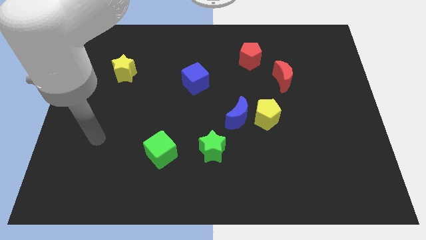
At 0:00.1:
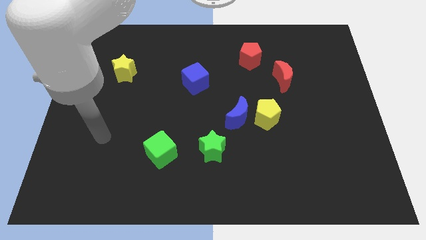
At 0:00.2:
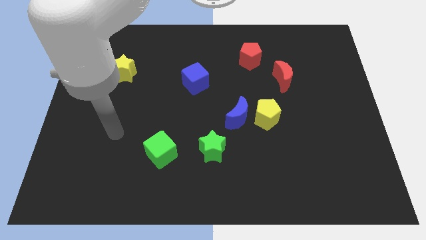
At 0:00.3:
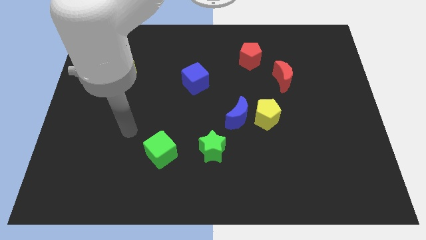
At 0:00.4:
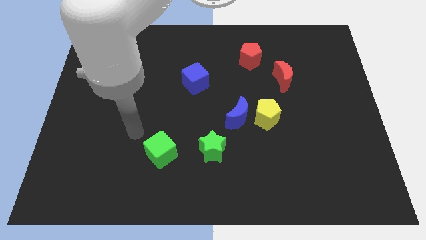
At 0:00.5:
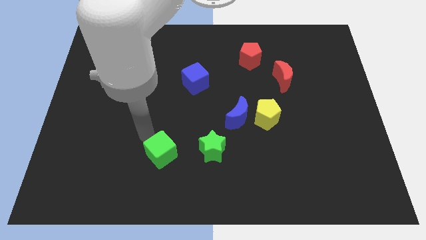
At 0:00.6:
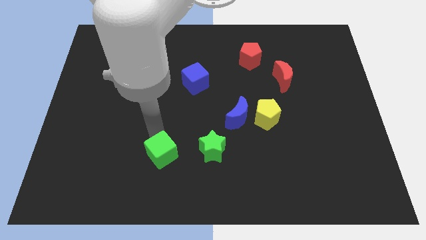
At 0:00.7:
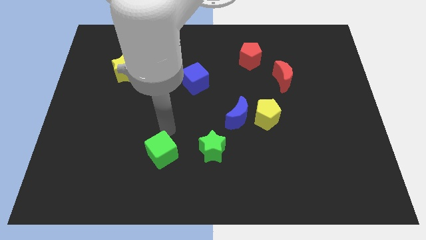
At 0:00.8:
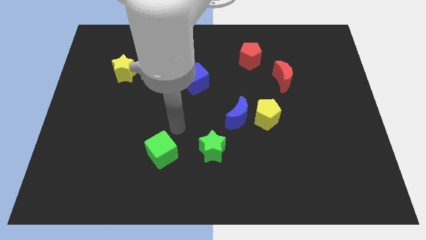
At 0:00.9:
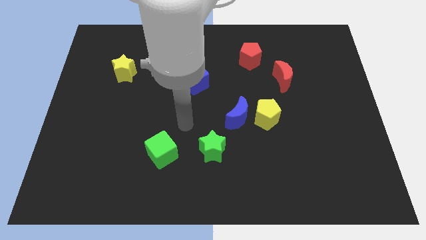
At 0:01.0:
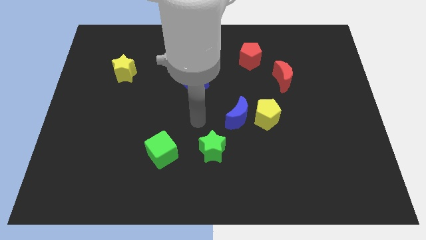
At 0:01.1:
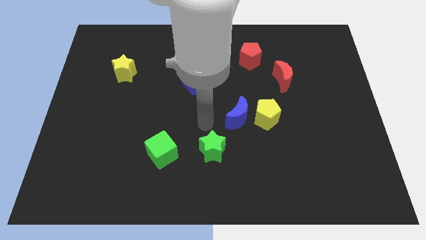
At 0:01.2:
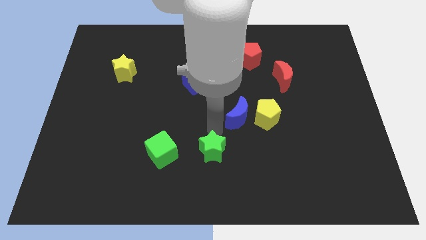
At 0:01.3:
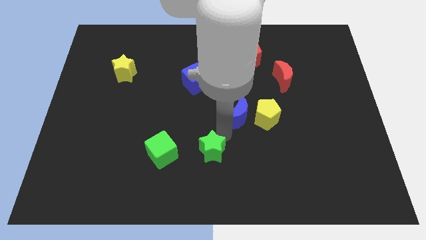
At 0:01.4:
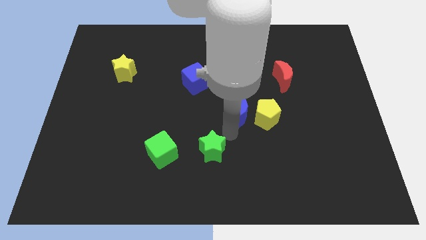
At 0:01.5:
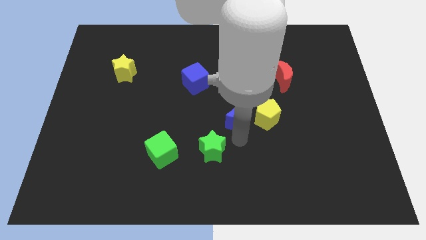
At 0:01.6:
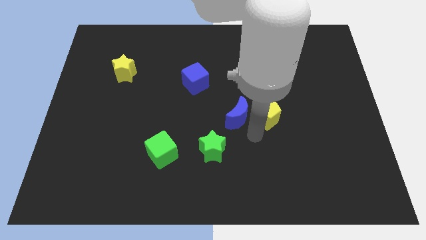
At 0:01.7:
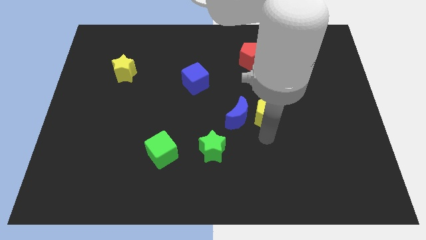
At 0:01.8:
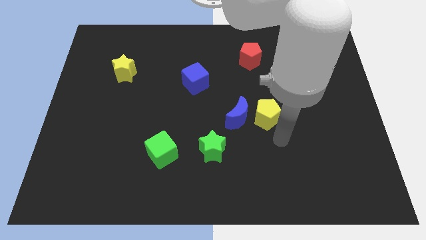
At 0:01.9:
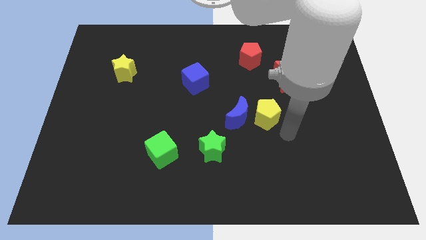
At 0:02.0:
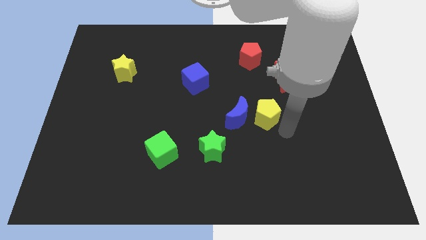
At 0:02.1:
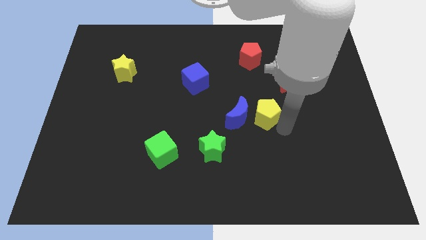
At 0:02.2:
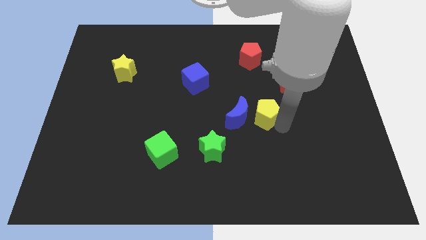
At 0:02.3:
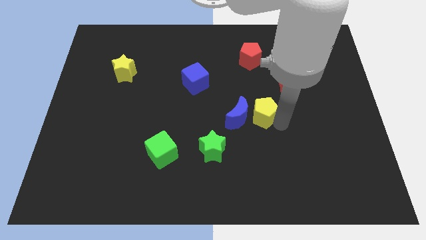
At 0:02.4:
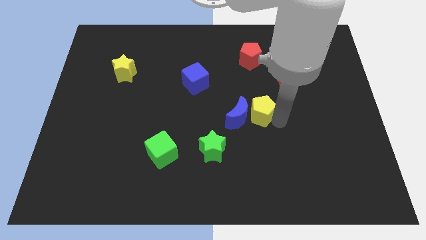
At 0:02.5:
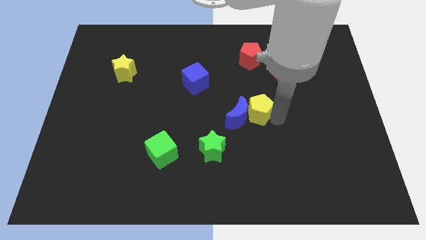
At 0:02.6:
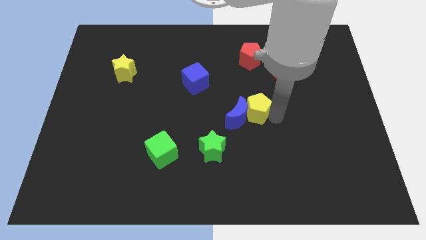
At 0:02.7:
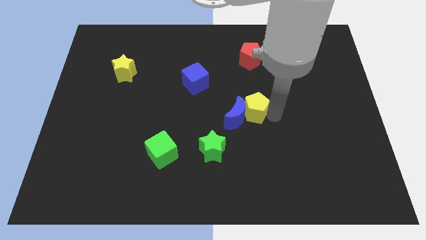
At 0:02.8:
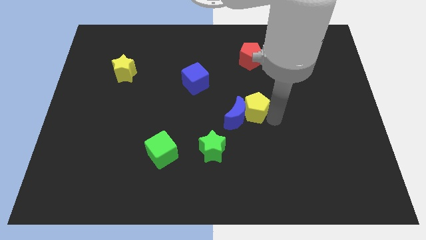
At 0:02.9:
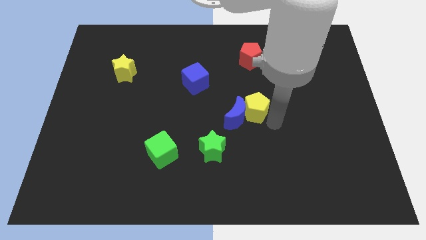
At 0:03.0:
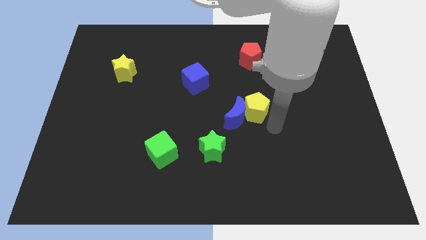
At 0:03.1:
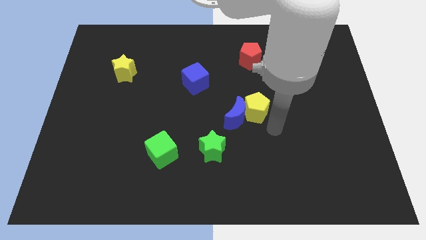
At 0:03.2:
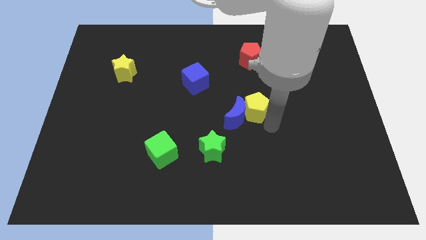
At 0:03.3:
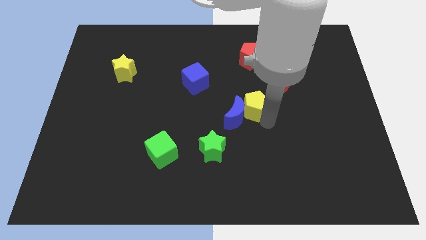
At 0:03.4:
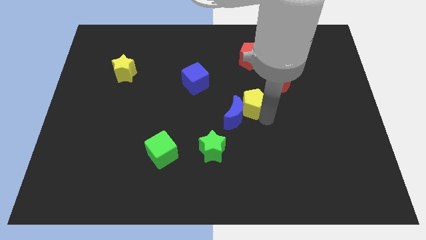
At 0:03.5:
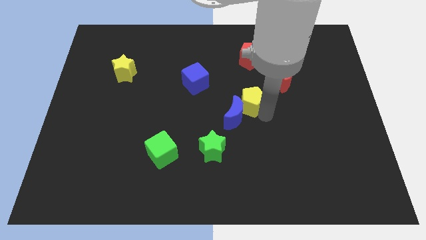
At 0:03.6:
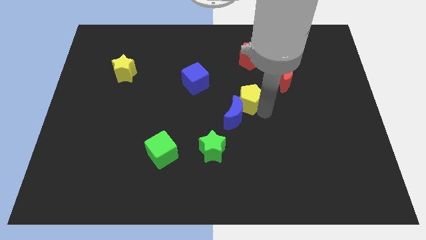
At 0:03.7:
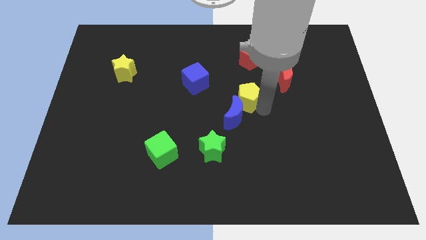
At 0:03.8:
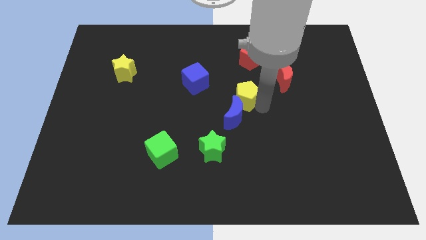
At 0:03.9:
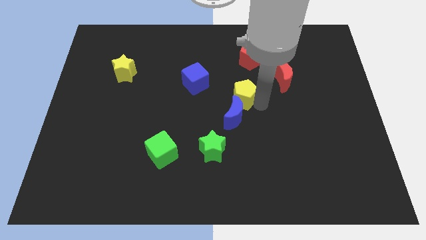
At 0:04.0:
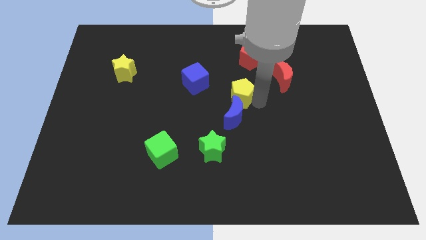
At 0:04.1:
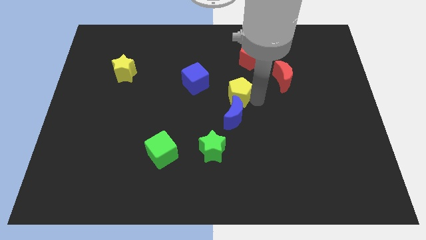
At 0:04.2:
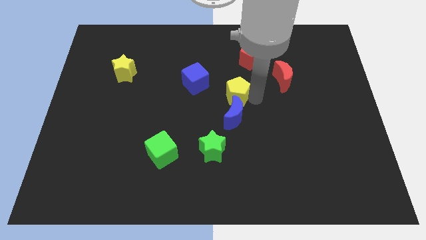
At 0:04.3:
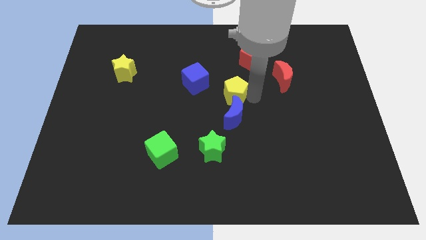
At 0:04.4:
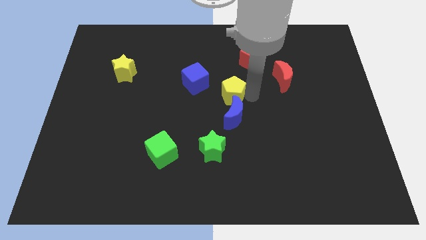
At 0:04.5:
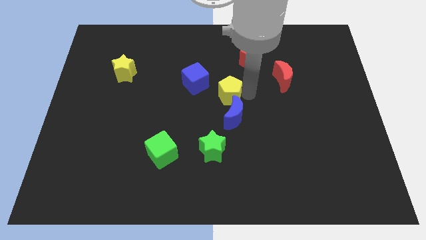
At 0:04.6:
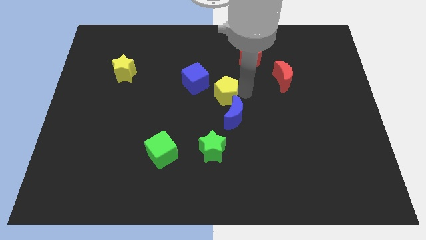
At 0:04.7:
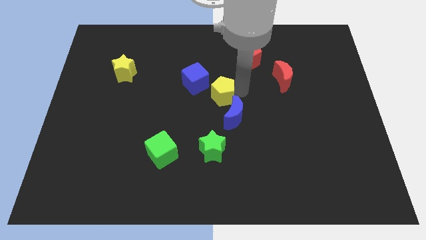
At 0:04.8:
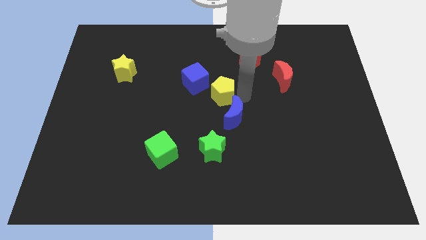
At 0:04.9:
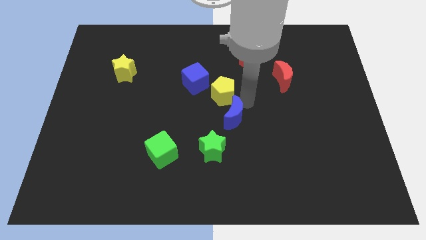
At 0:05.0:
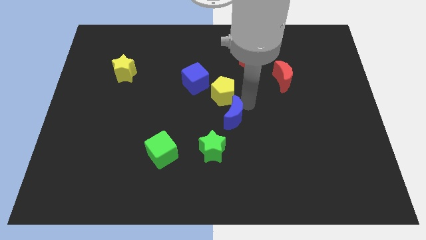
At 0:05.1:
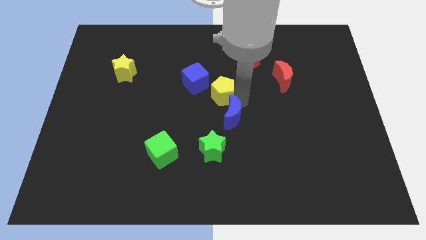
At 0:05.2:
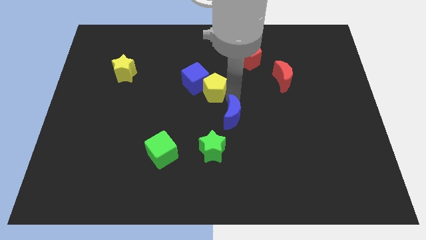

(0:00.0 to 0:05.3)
slide the yellow pentagon close to the blue cube

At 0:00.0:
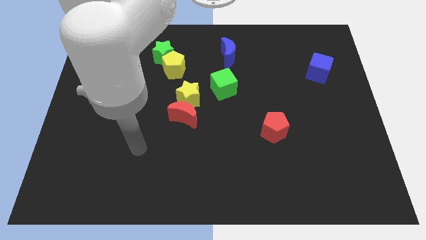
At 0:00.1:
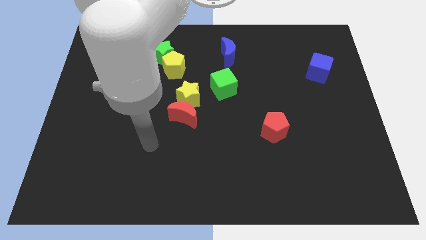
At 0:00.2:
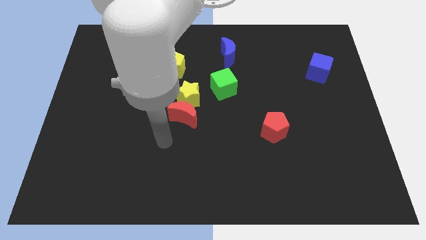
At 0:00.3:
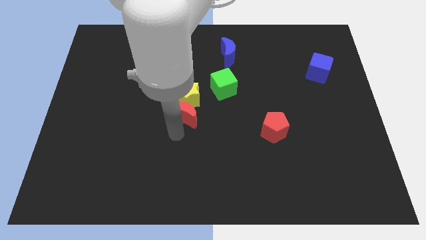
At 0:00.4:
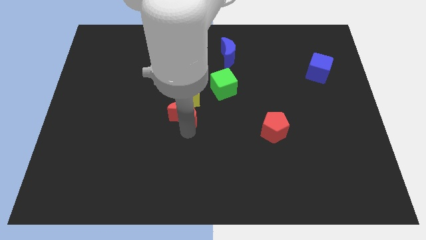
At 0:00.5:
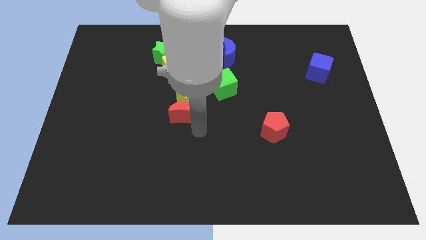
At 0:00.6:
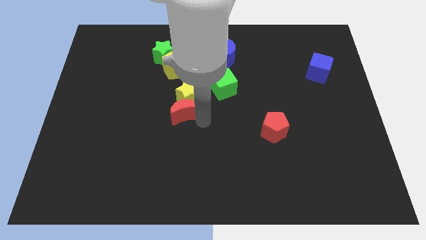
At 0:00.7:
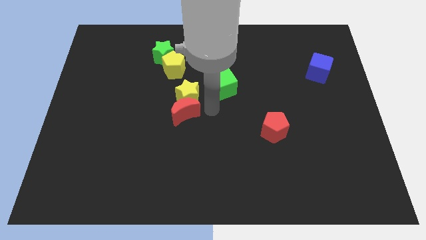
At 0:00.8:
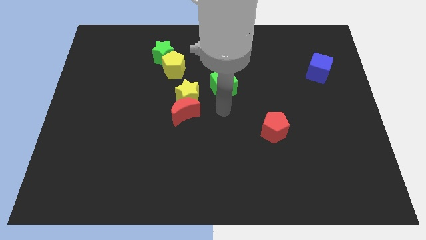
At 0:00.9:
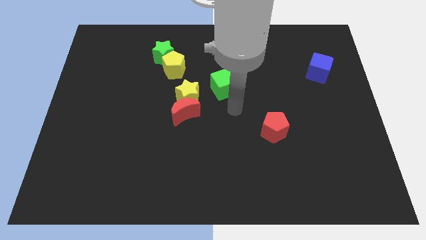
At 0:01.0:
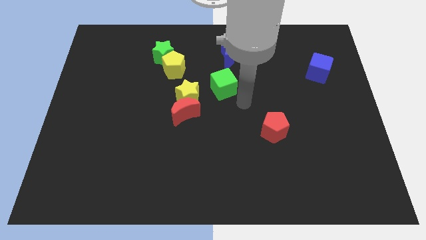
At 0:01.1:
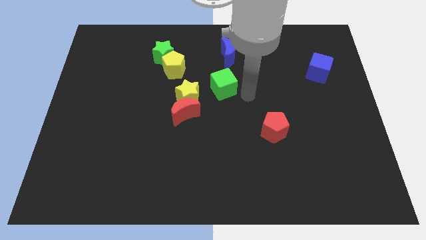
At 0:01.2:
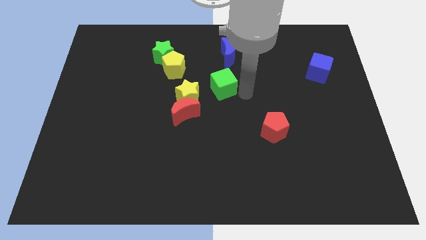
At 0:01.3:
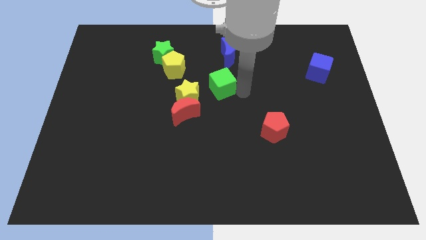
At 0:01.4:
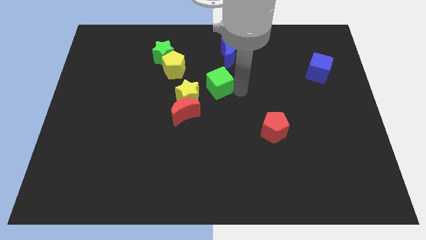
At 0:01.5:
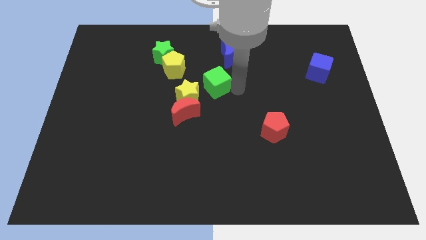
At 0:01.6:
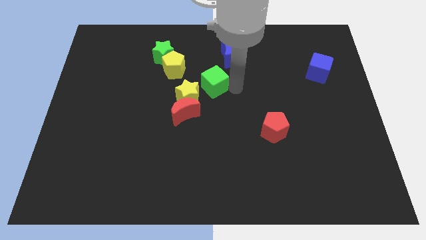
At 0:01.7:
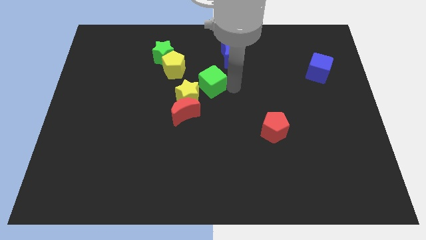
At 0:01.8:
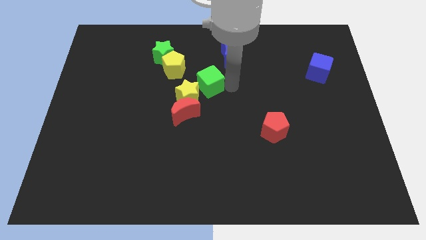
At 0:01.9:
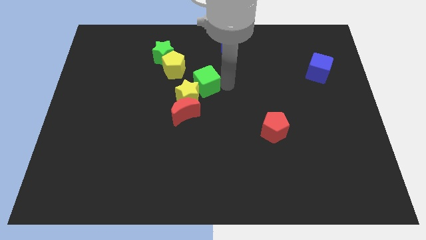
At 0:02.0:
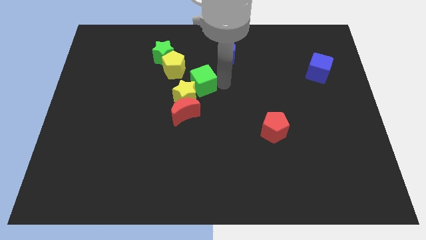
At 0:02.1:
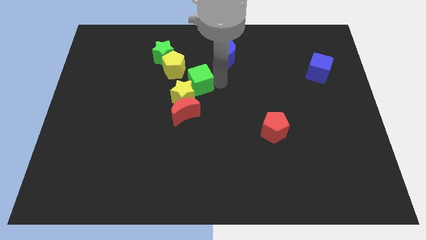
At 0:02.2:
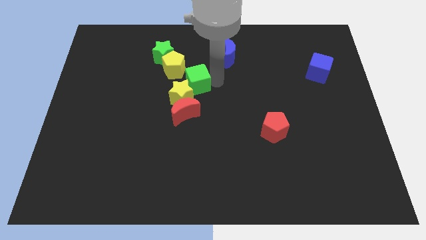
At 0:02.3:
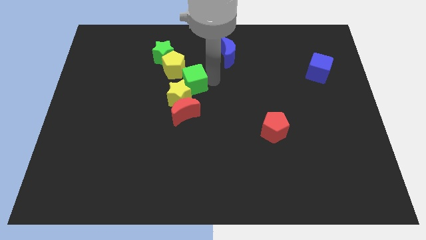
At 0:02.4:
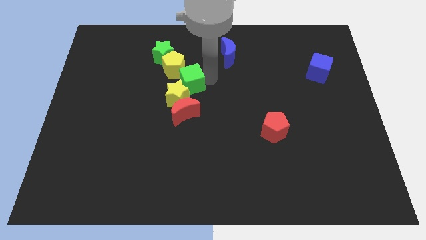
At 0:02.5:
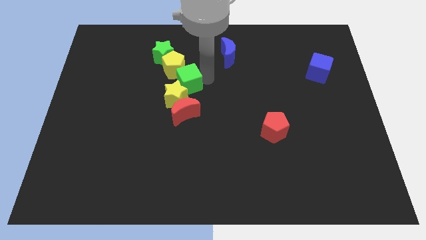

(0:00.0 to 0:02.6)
push the green cube to the yellow pentagon

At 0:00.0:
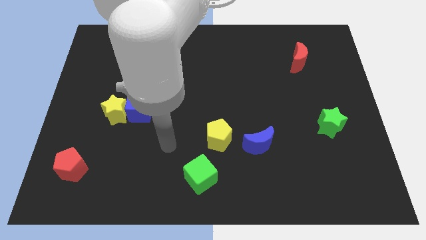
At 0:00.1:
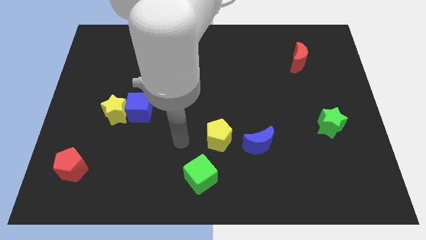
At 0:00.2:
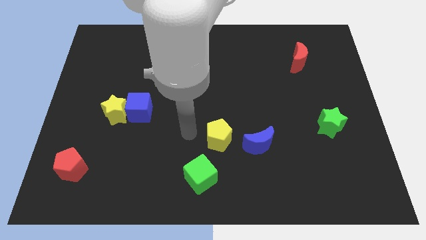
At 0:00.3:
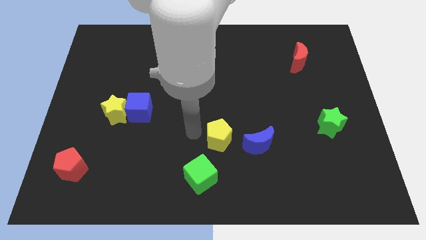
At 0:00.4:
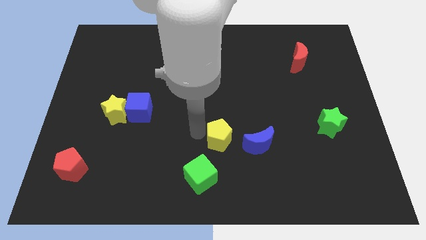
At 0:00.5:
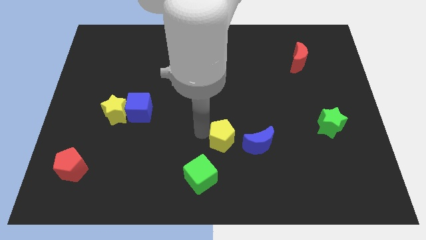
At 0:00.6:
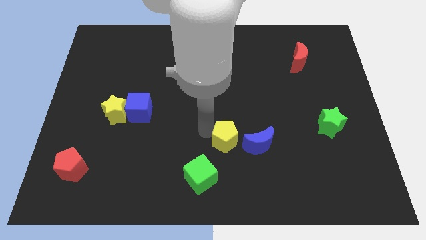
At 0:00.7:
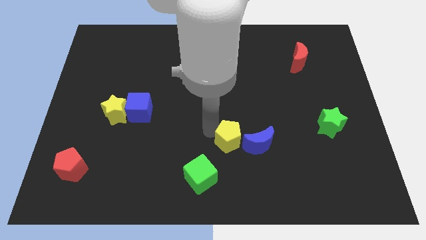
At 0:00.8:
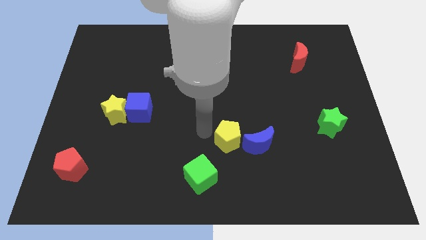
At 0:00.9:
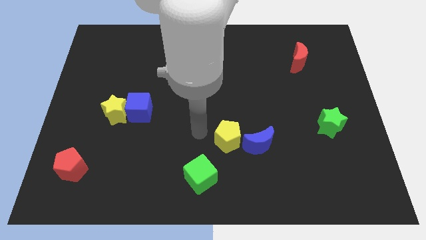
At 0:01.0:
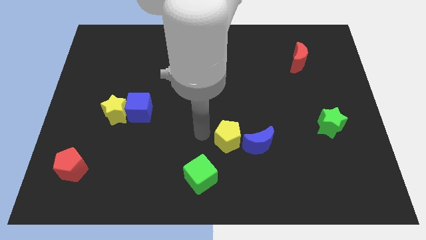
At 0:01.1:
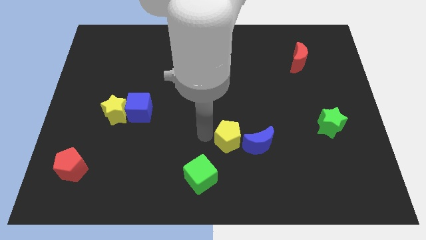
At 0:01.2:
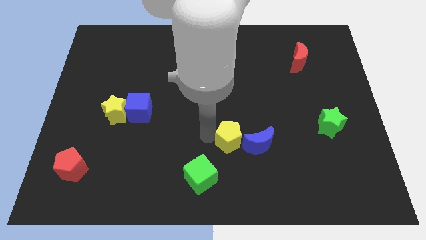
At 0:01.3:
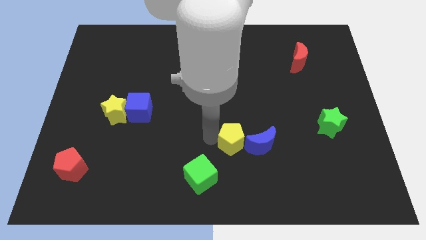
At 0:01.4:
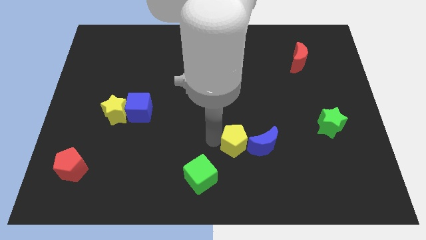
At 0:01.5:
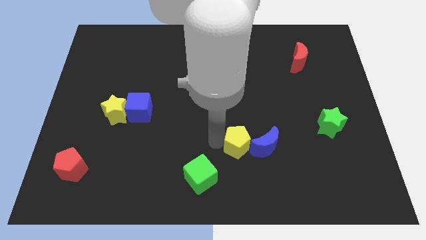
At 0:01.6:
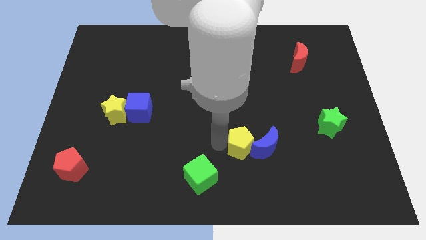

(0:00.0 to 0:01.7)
move the yellow pentagon towards the blue moon
